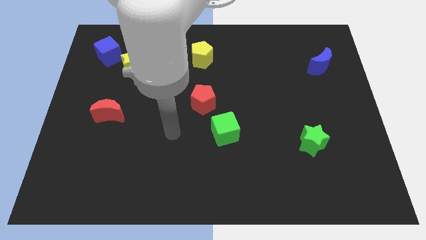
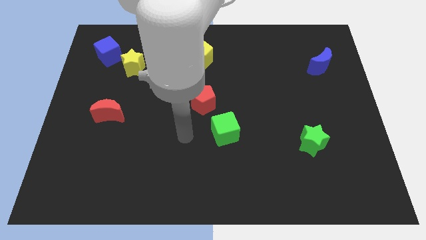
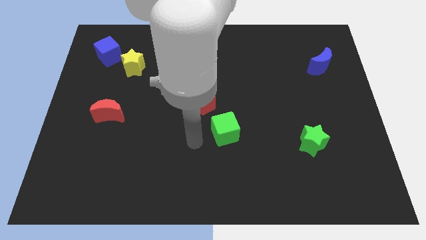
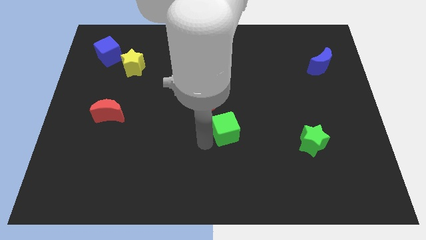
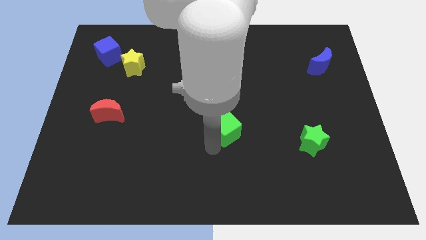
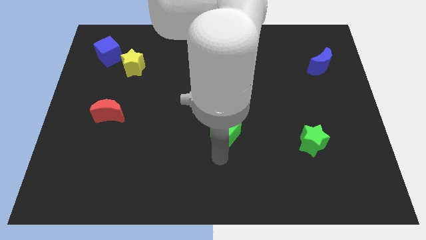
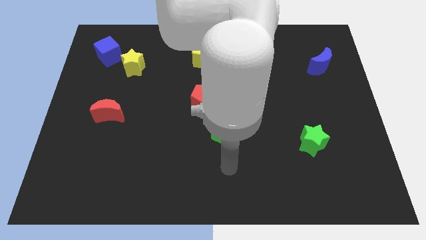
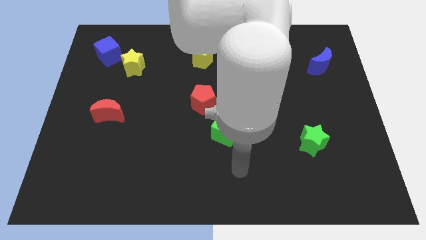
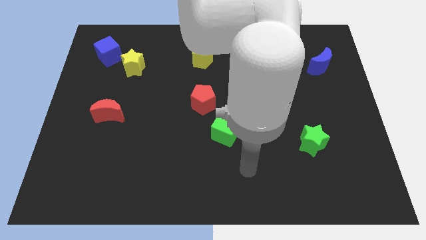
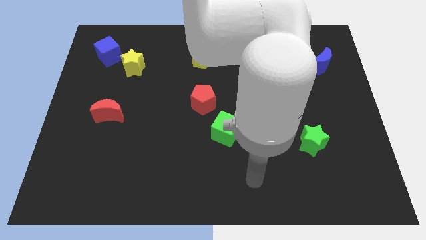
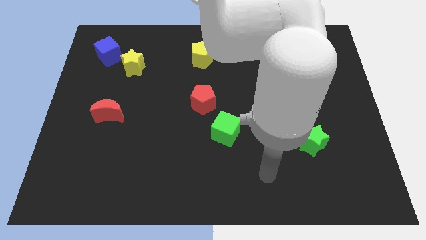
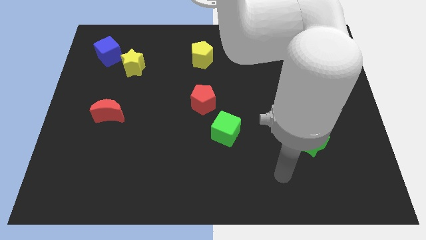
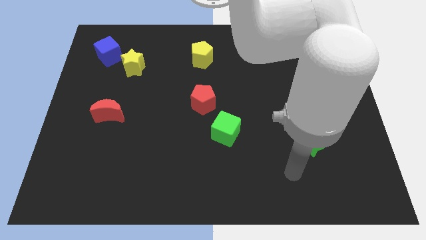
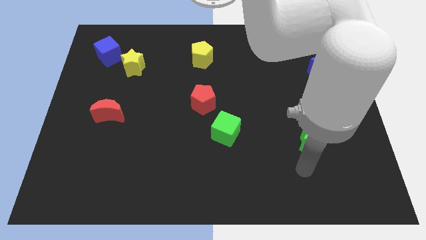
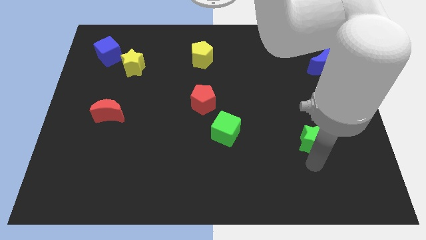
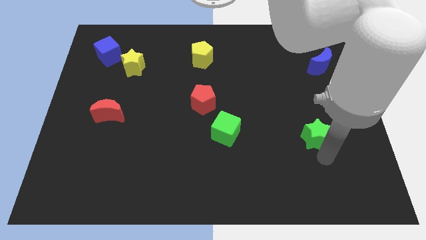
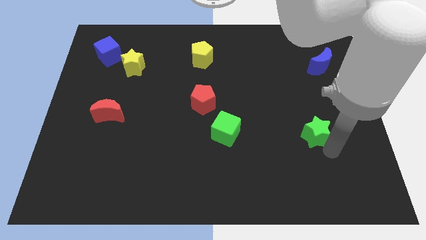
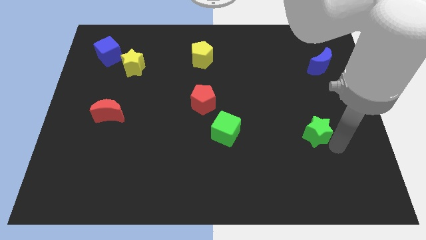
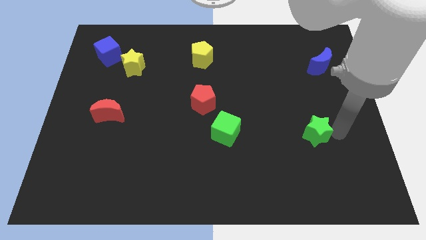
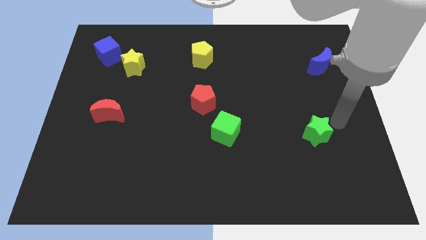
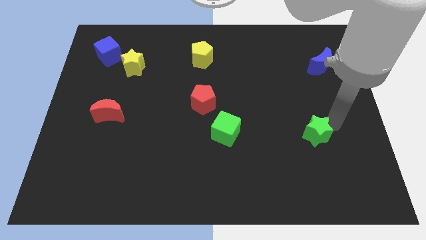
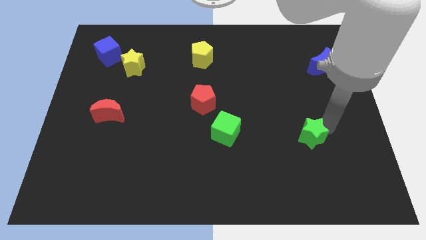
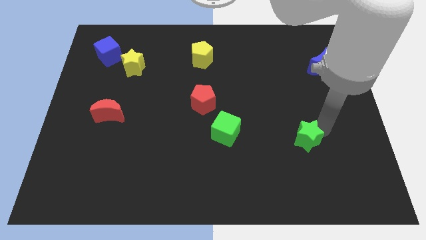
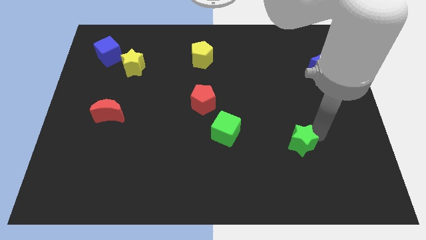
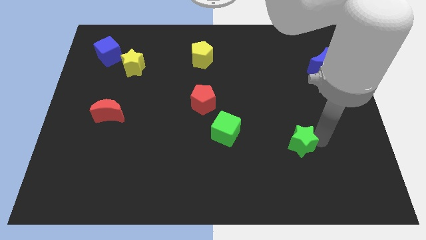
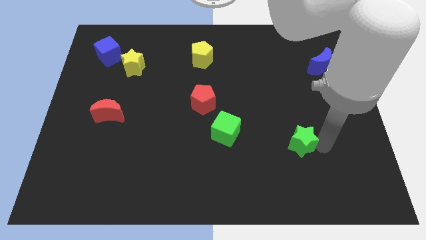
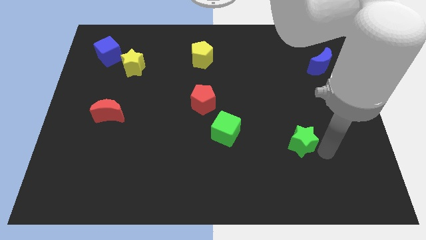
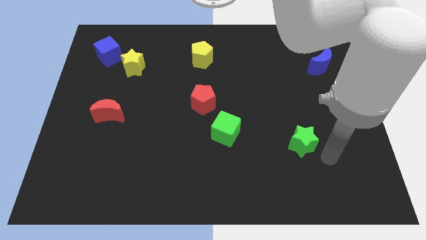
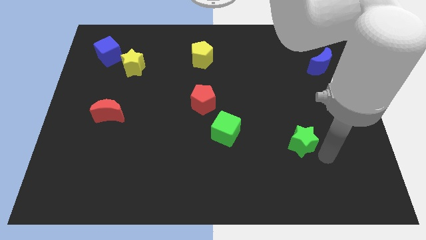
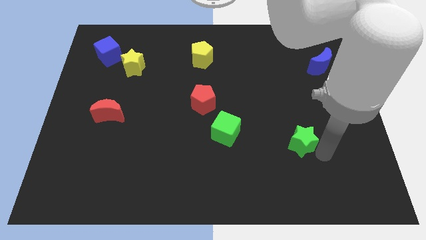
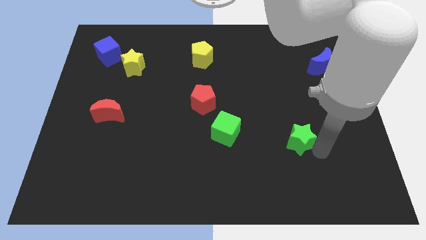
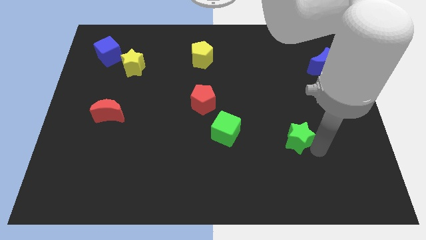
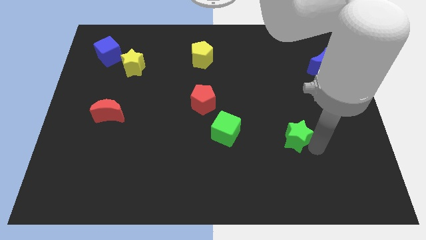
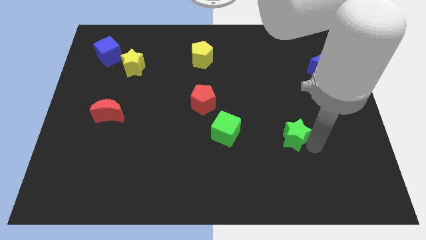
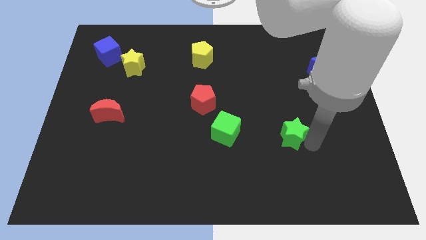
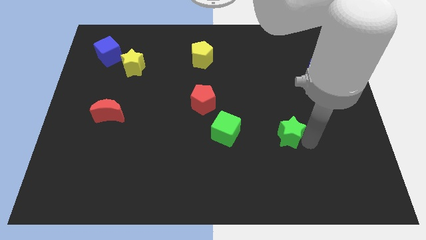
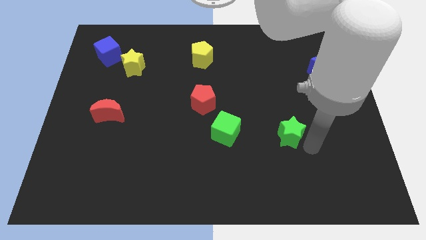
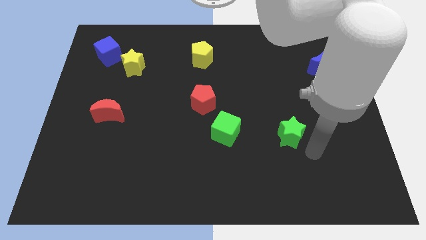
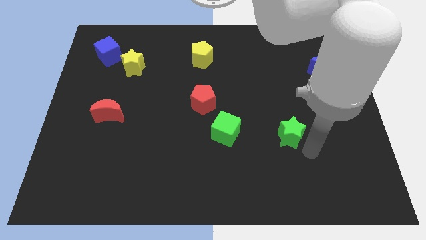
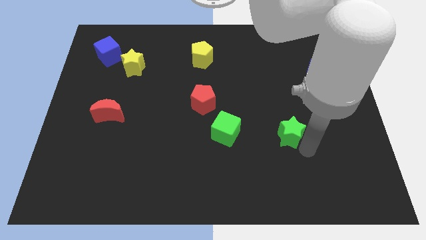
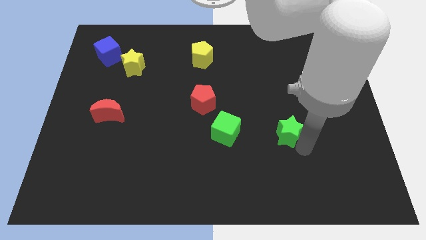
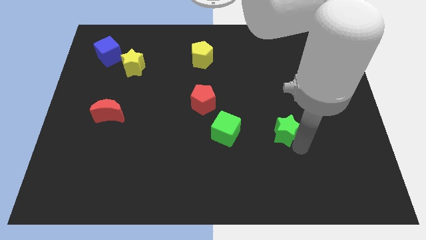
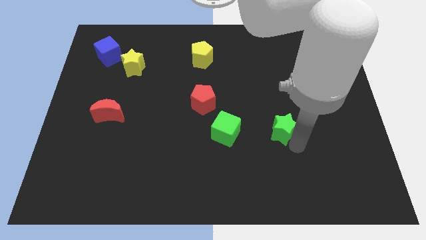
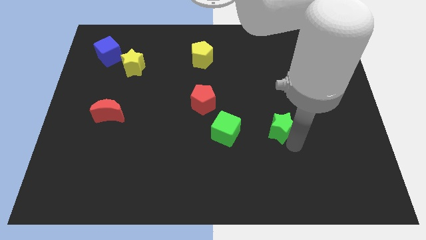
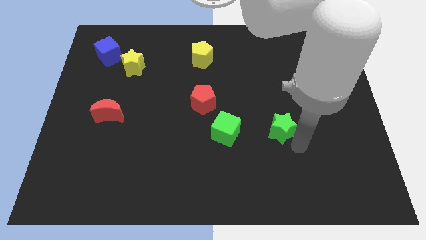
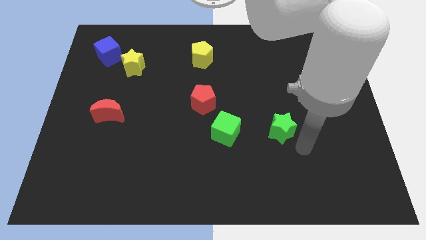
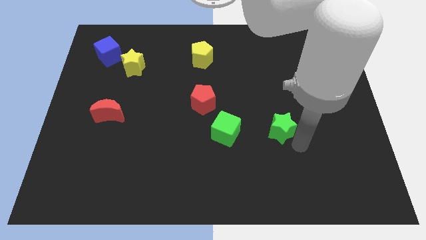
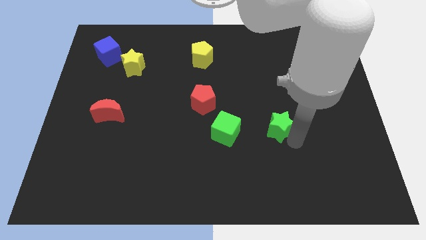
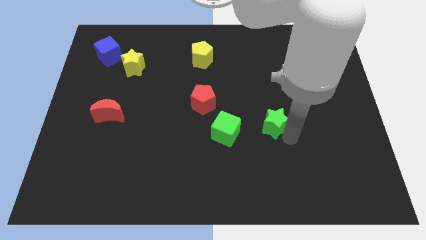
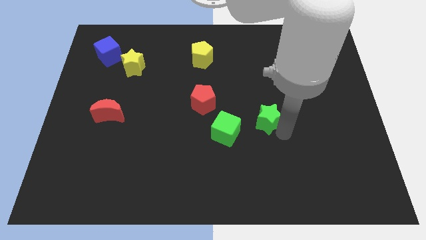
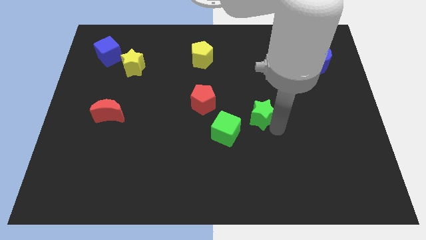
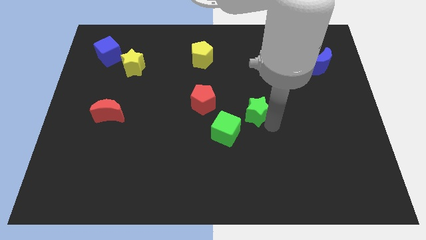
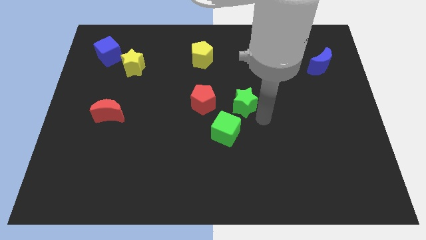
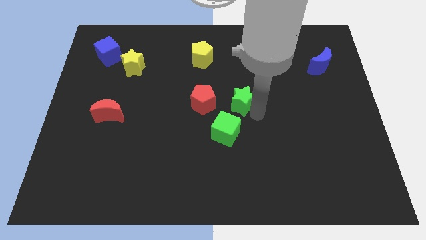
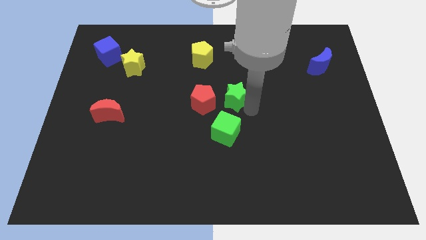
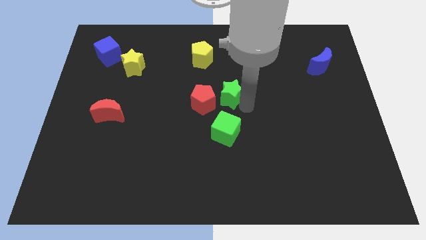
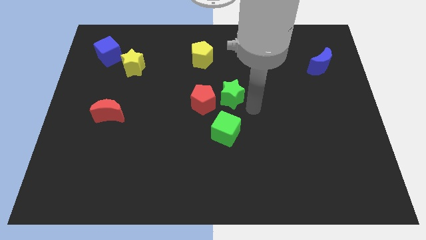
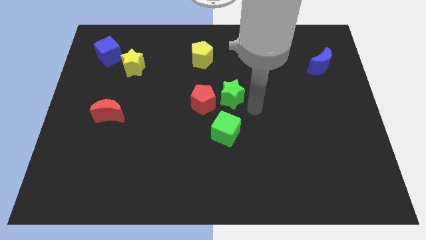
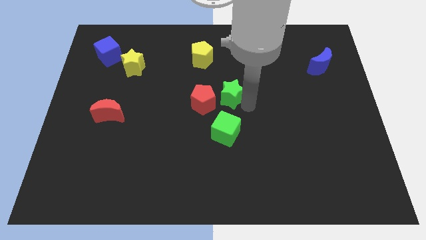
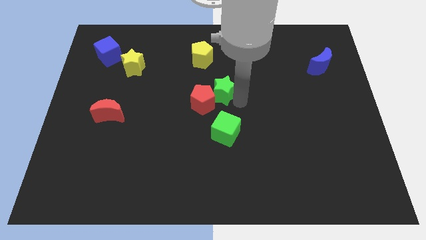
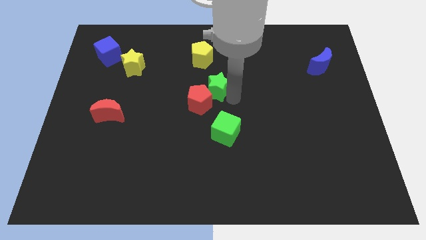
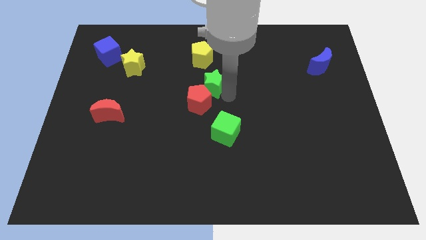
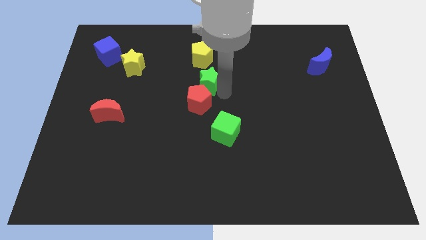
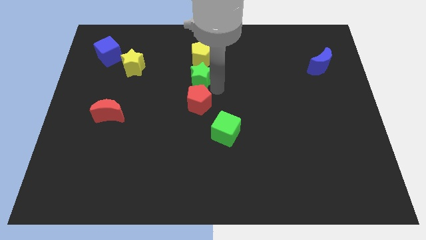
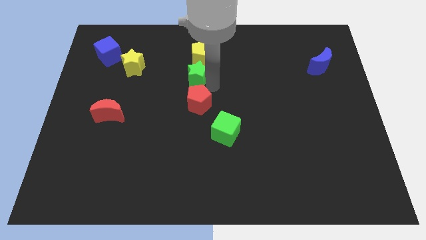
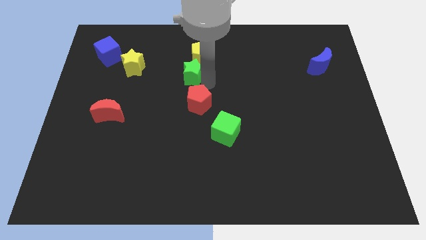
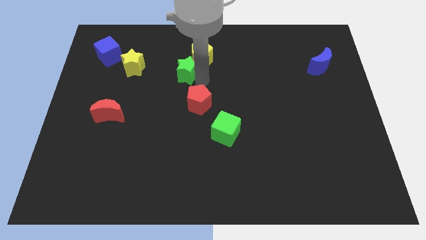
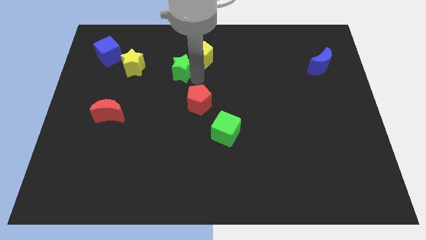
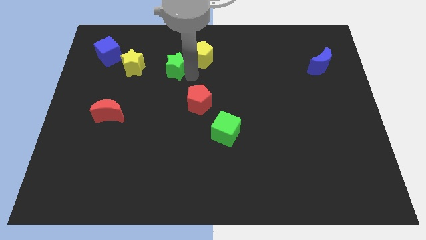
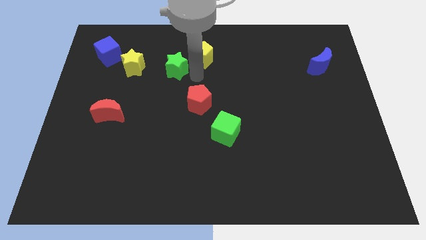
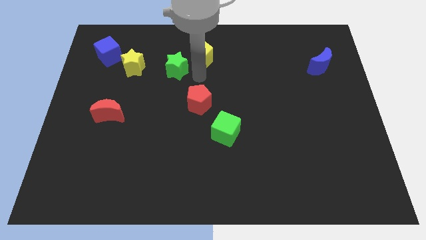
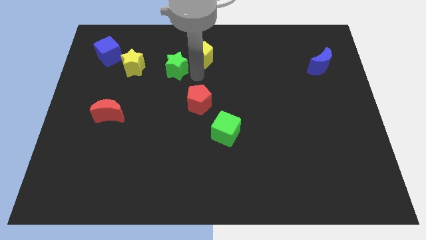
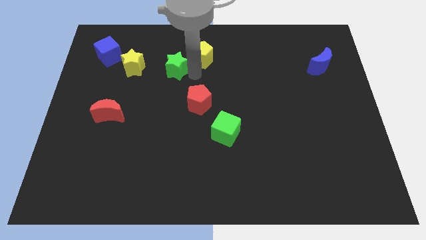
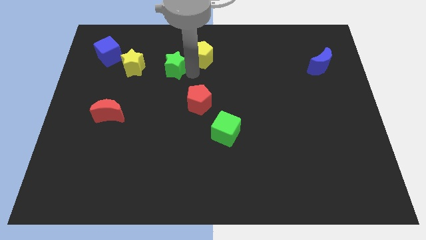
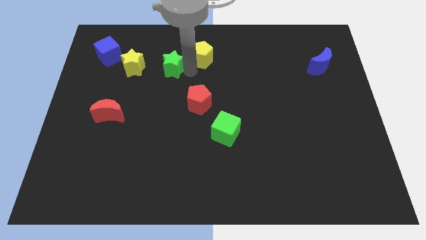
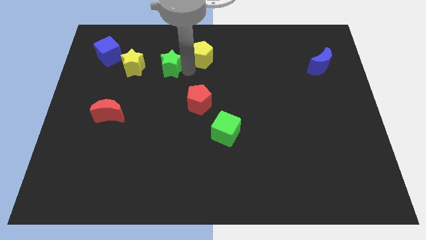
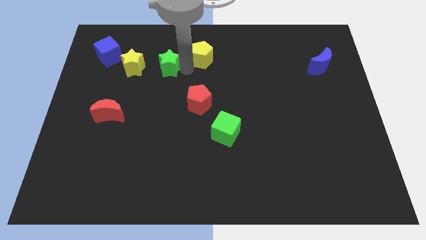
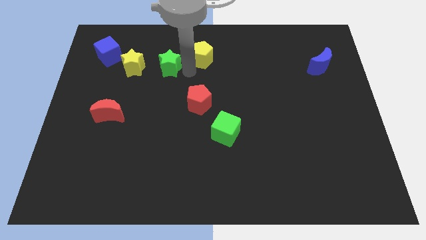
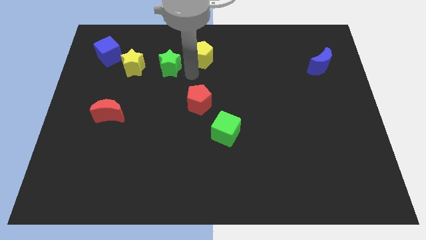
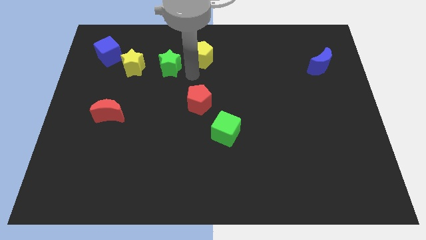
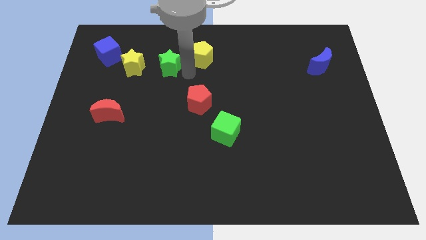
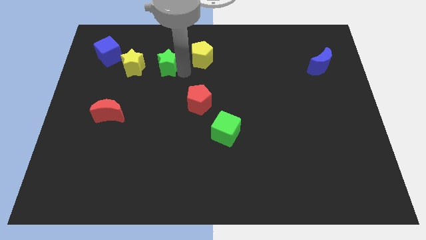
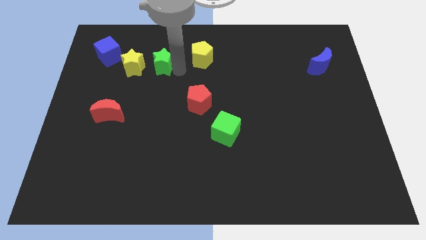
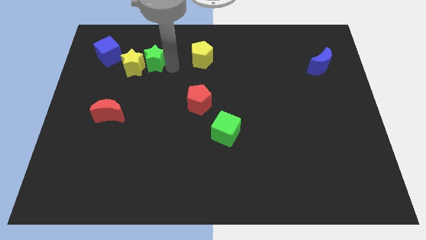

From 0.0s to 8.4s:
slide the green star close to the yellow star
